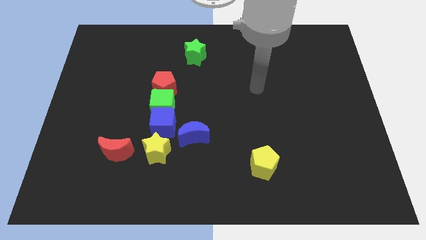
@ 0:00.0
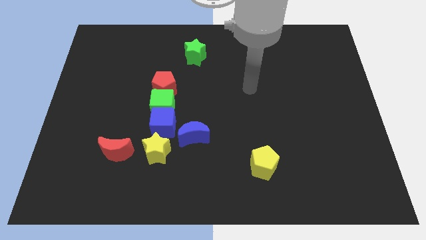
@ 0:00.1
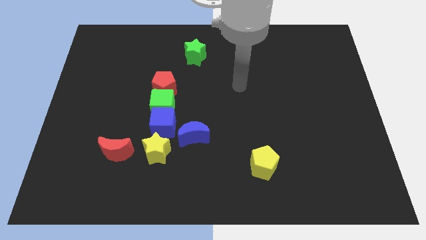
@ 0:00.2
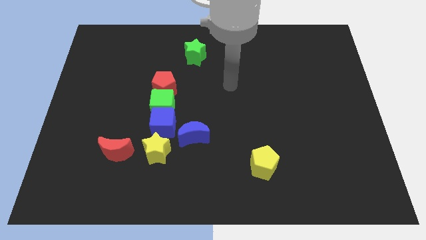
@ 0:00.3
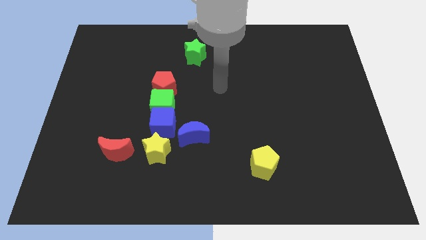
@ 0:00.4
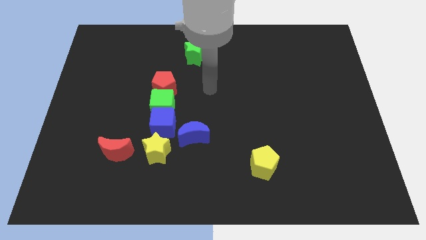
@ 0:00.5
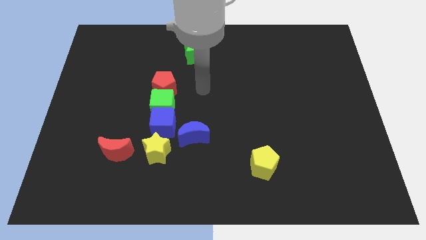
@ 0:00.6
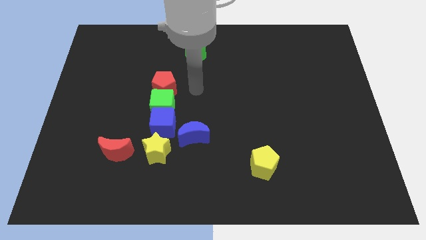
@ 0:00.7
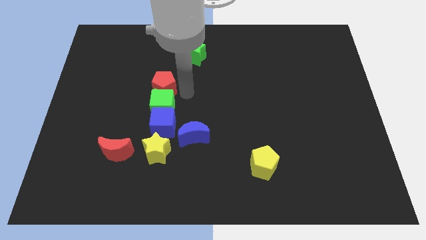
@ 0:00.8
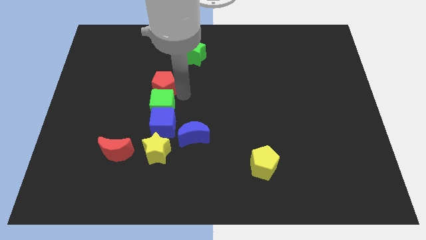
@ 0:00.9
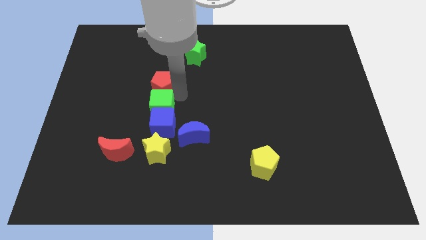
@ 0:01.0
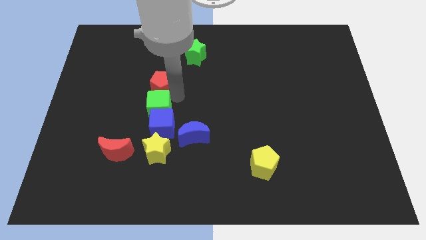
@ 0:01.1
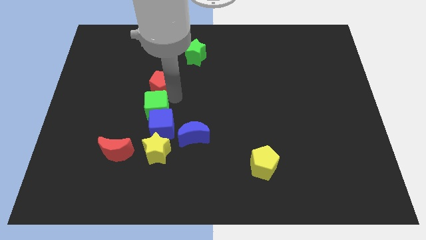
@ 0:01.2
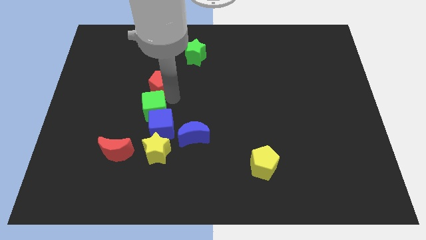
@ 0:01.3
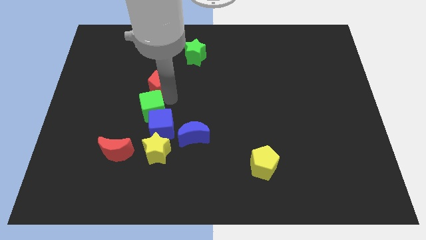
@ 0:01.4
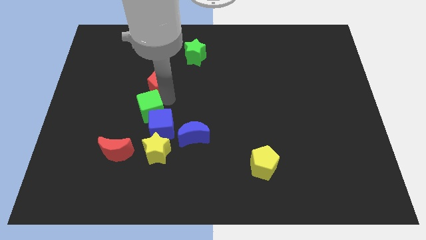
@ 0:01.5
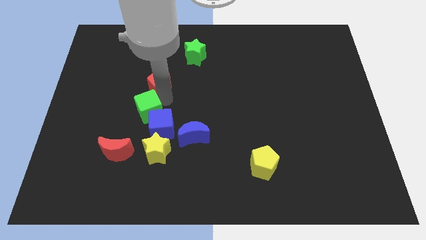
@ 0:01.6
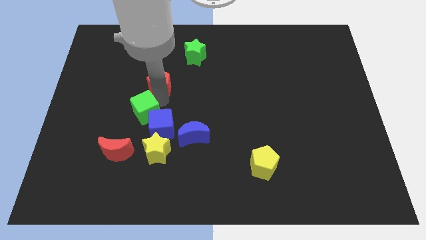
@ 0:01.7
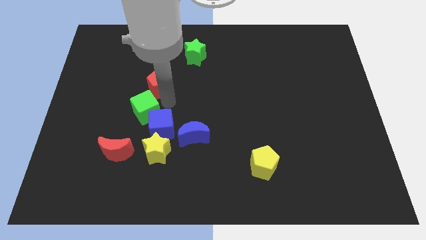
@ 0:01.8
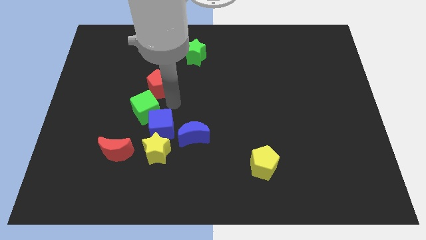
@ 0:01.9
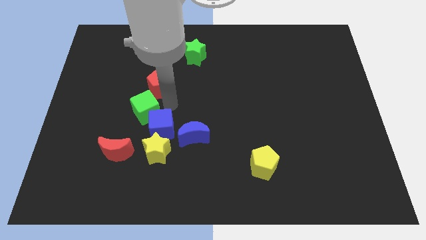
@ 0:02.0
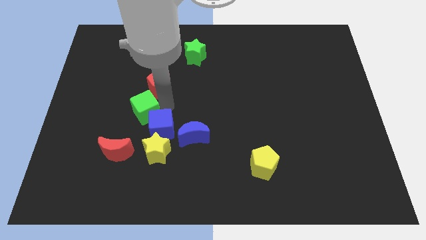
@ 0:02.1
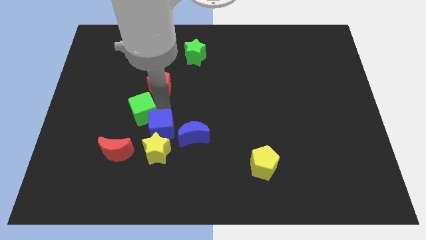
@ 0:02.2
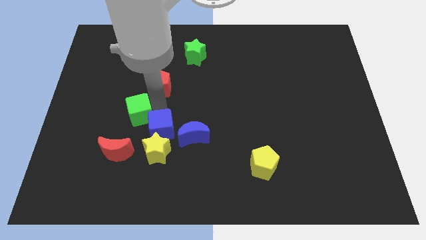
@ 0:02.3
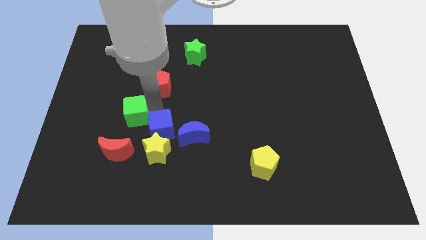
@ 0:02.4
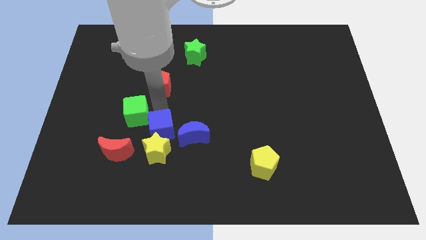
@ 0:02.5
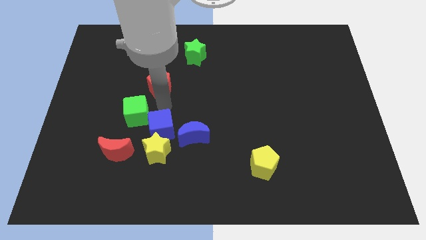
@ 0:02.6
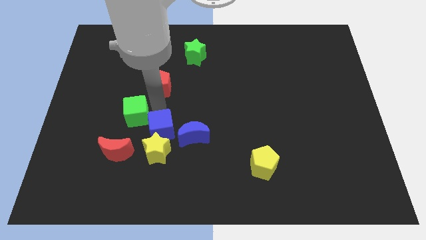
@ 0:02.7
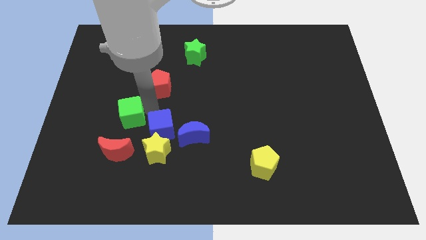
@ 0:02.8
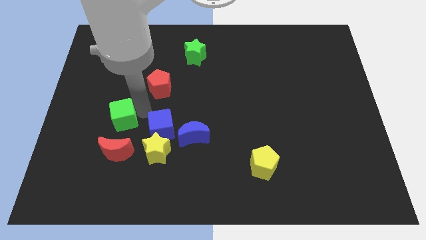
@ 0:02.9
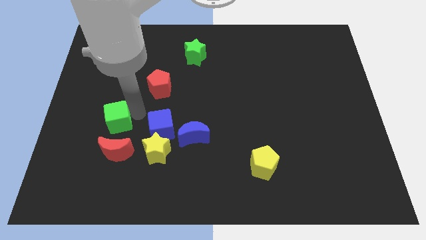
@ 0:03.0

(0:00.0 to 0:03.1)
separate the green cube from the blue cube and red pentagon

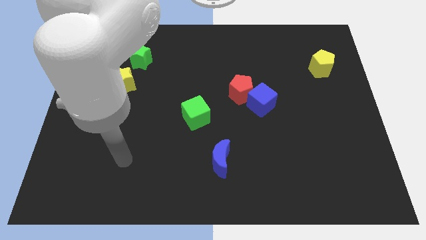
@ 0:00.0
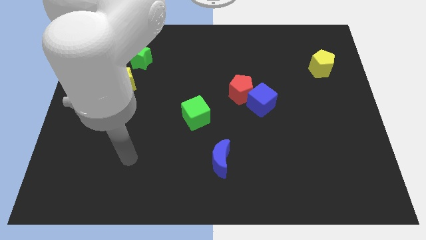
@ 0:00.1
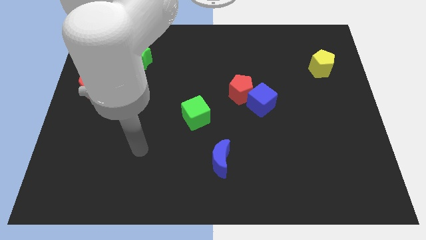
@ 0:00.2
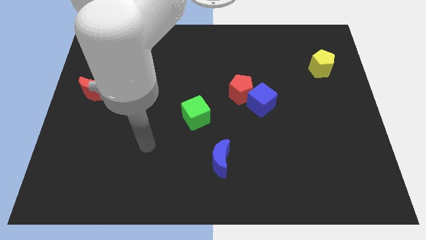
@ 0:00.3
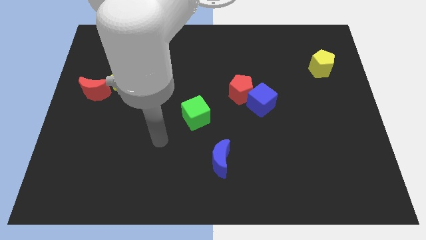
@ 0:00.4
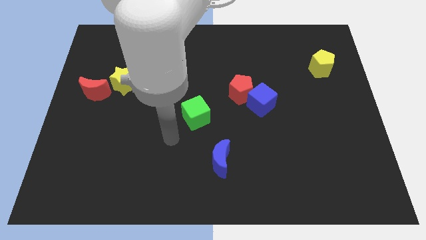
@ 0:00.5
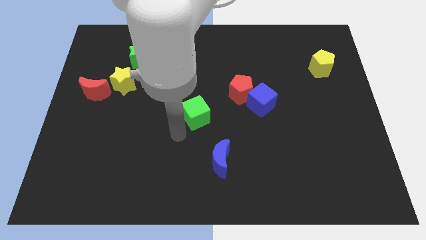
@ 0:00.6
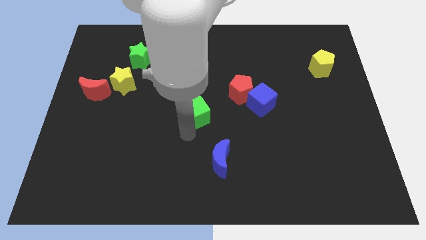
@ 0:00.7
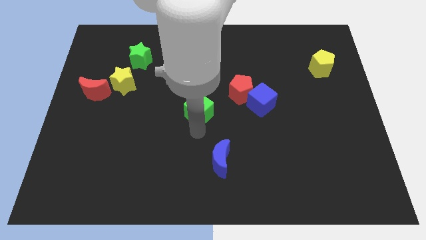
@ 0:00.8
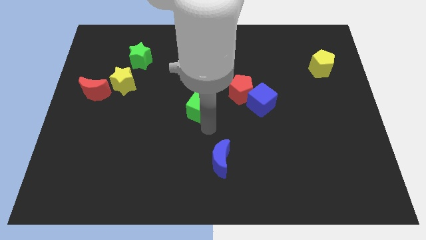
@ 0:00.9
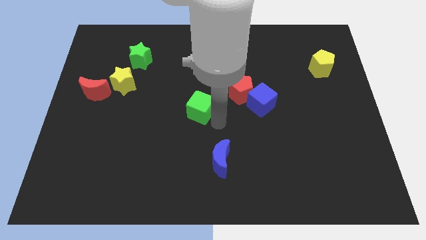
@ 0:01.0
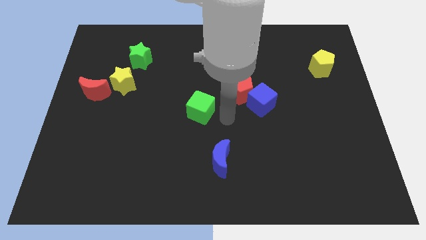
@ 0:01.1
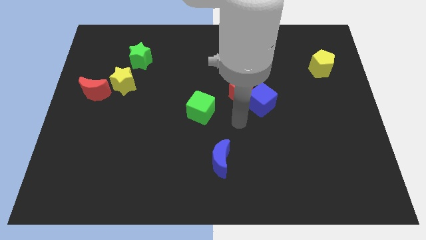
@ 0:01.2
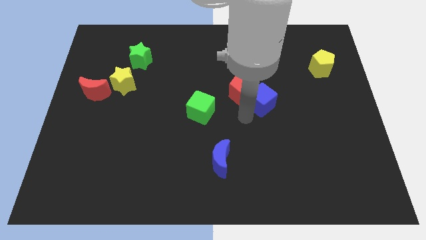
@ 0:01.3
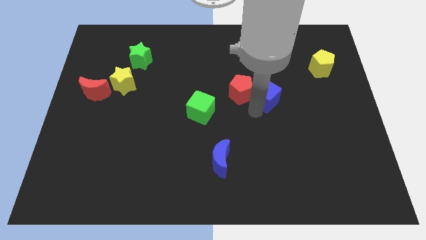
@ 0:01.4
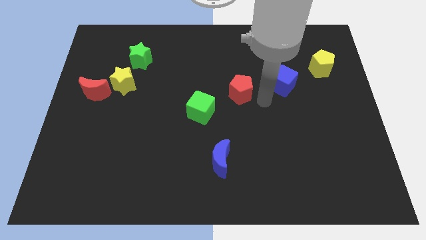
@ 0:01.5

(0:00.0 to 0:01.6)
move the red pentagon away from the blue cube

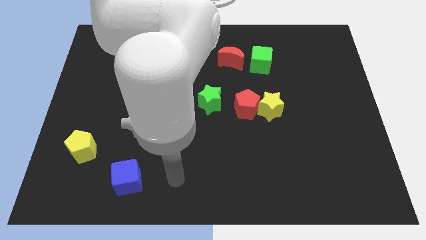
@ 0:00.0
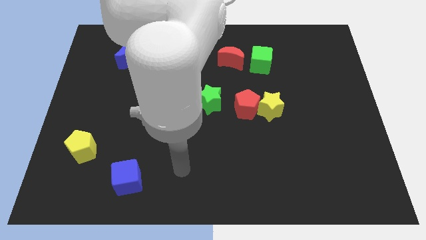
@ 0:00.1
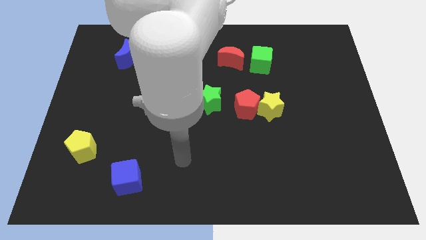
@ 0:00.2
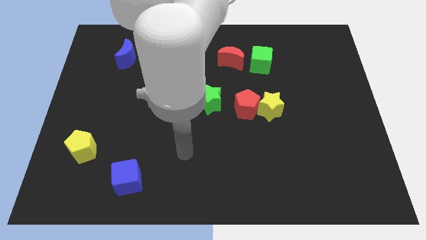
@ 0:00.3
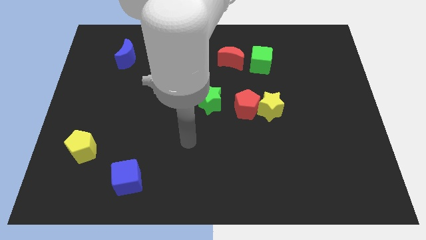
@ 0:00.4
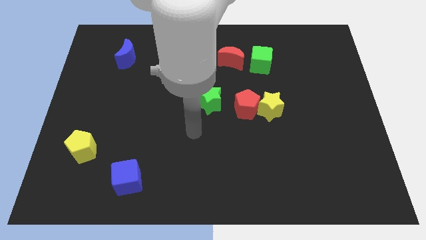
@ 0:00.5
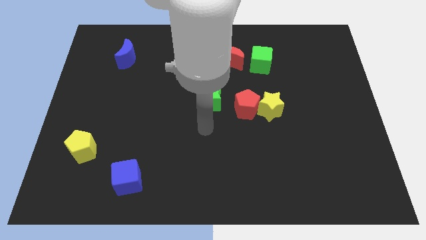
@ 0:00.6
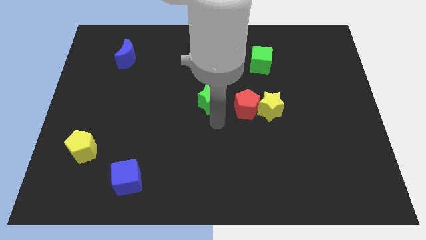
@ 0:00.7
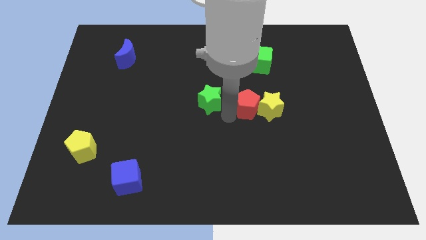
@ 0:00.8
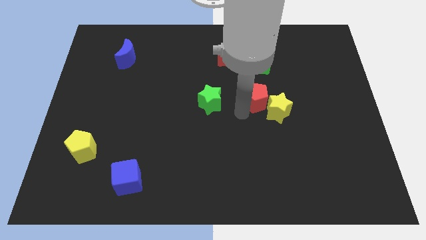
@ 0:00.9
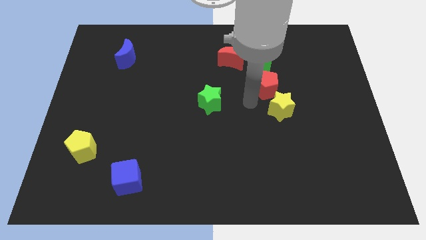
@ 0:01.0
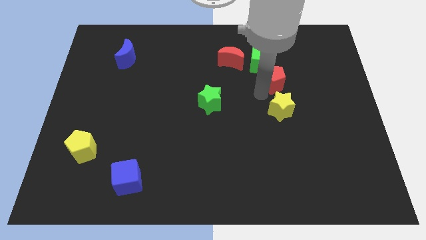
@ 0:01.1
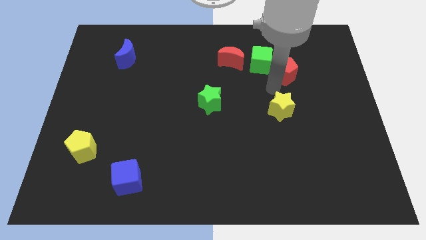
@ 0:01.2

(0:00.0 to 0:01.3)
move the yellow star away from the red pentagon

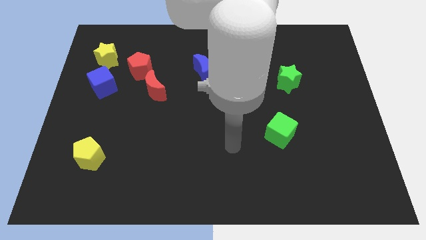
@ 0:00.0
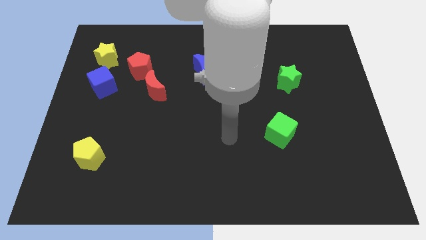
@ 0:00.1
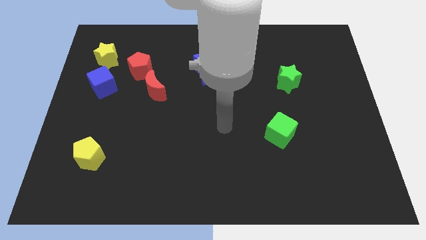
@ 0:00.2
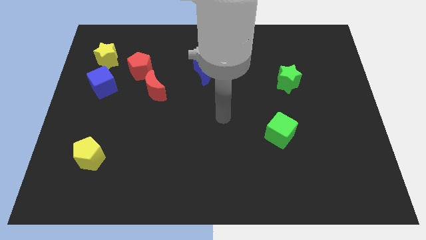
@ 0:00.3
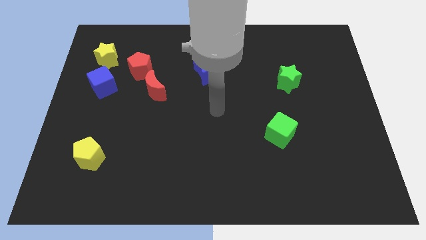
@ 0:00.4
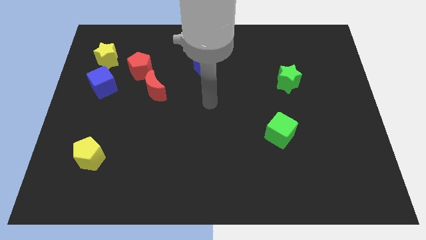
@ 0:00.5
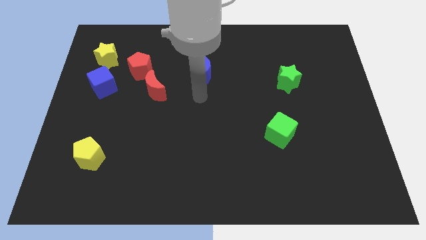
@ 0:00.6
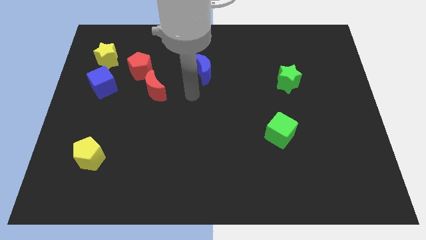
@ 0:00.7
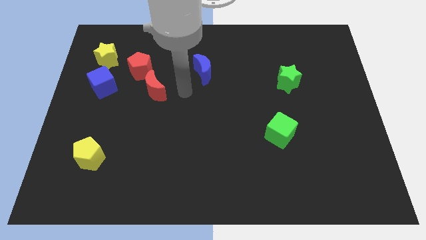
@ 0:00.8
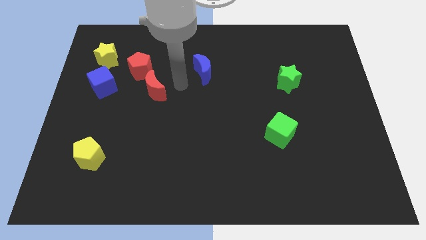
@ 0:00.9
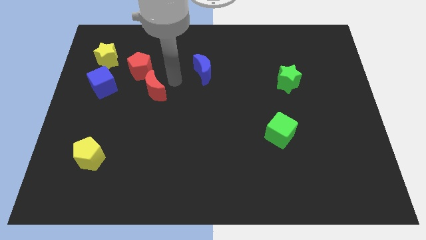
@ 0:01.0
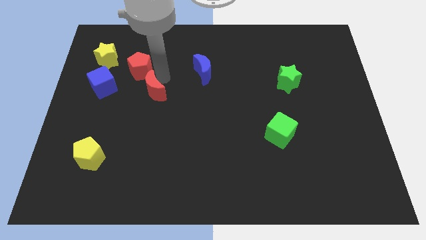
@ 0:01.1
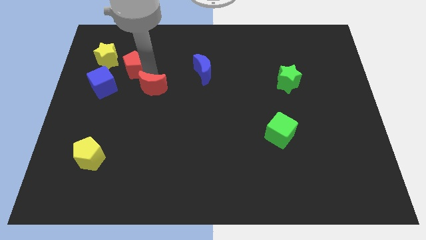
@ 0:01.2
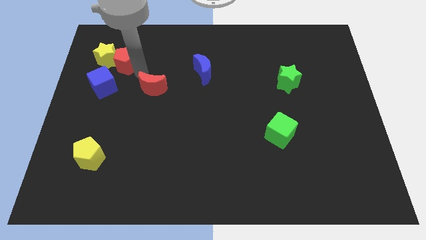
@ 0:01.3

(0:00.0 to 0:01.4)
pull the red moon apart from the red pentagon

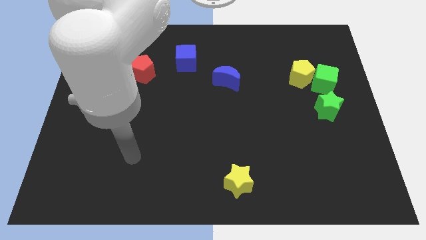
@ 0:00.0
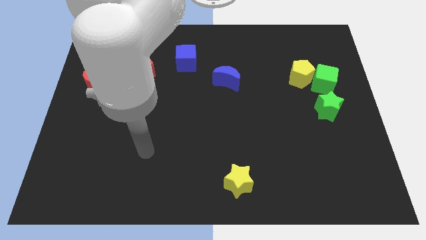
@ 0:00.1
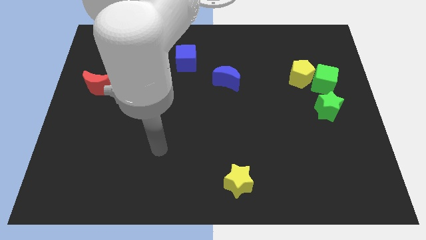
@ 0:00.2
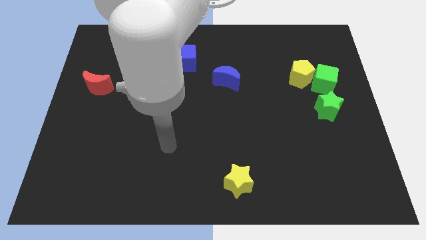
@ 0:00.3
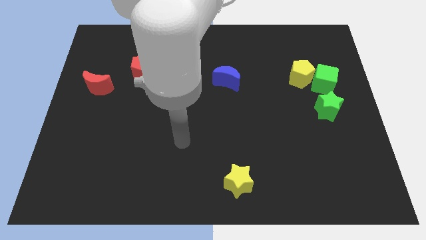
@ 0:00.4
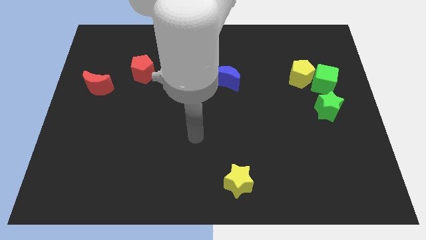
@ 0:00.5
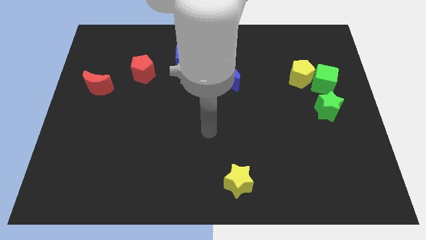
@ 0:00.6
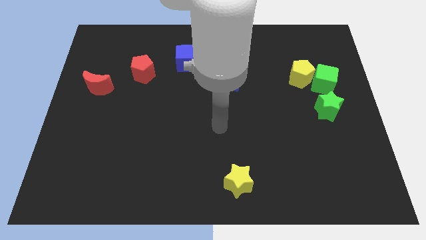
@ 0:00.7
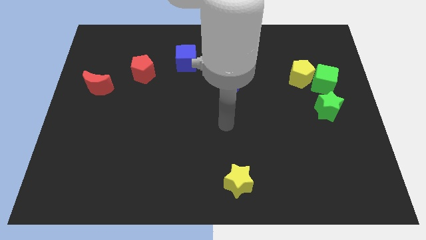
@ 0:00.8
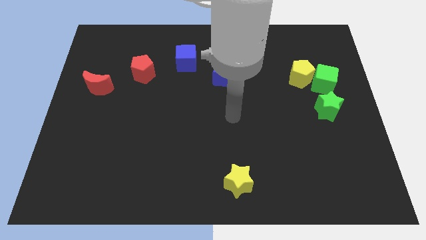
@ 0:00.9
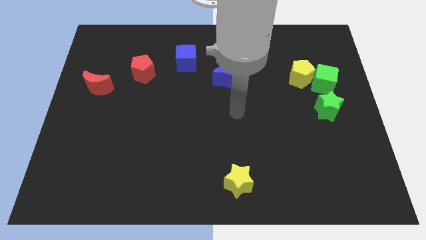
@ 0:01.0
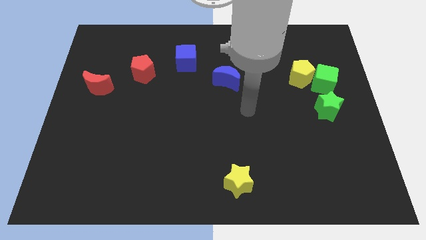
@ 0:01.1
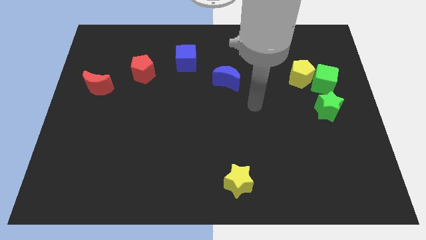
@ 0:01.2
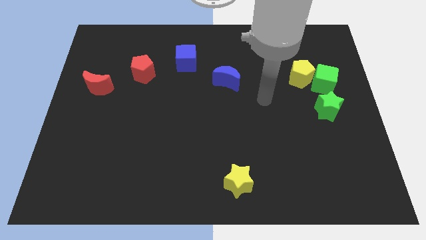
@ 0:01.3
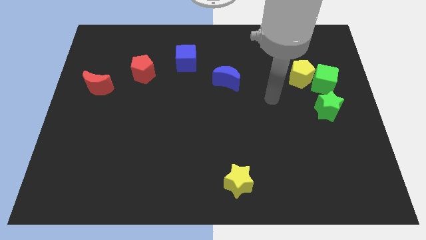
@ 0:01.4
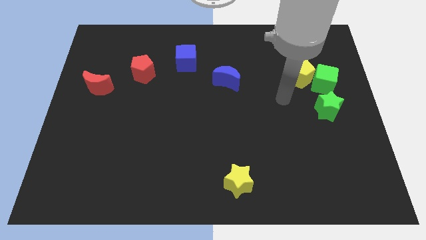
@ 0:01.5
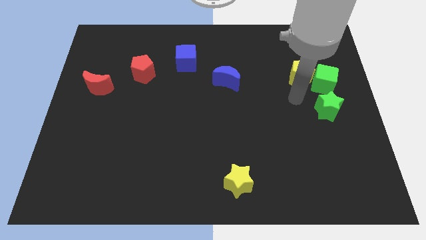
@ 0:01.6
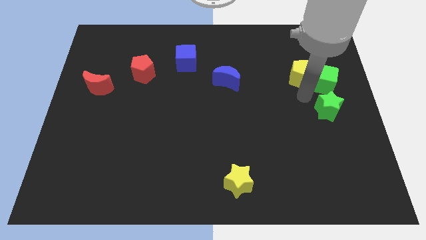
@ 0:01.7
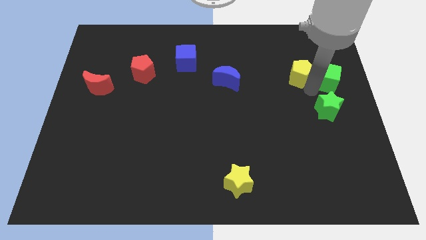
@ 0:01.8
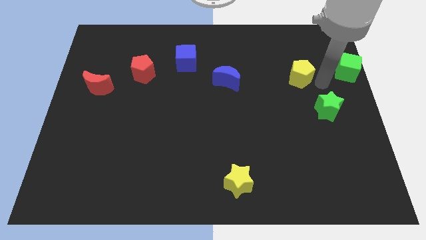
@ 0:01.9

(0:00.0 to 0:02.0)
pull the yellow pentagon apart from the green cube
